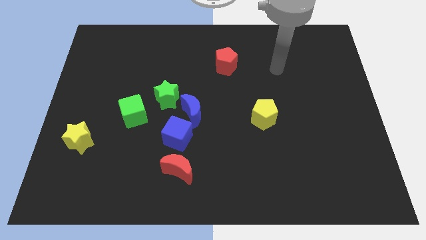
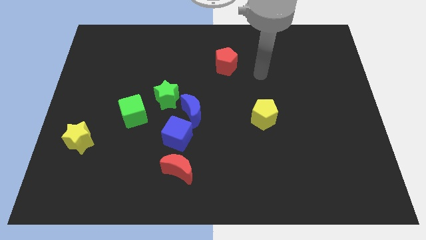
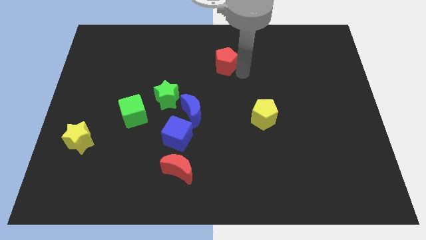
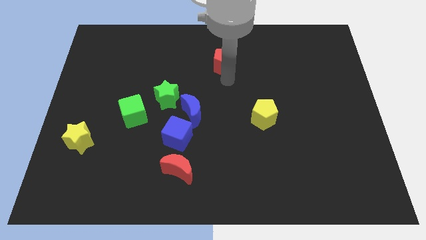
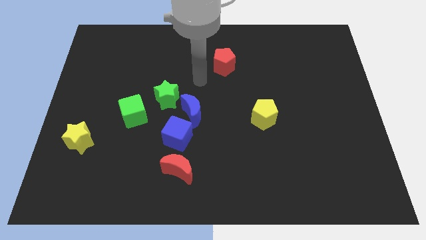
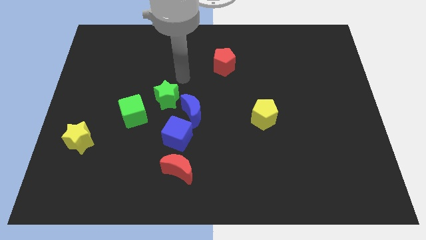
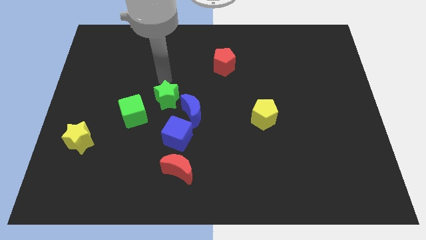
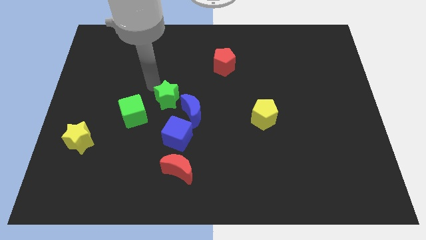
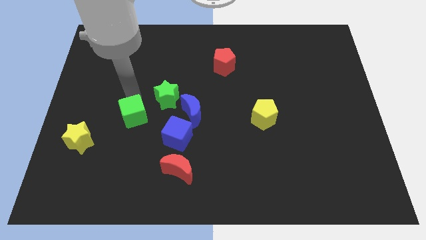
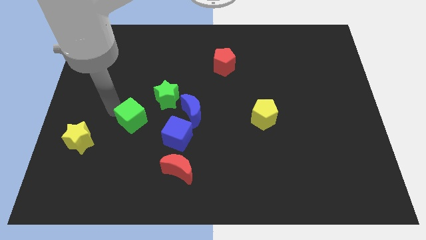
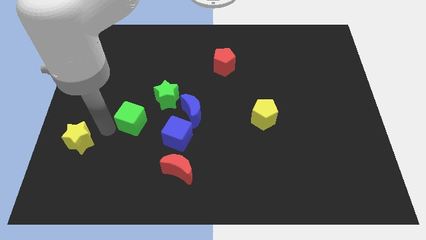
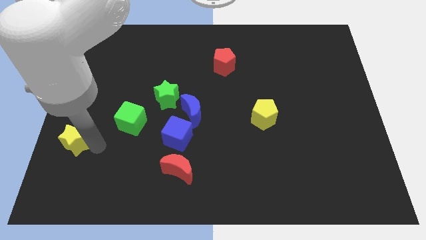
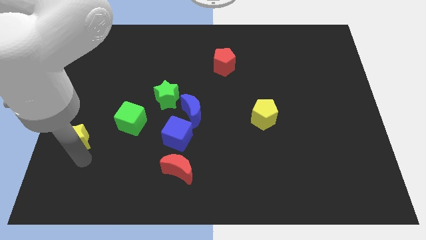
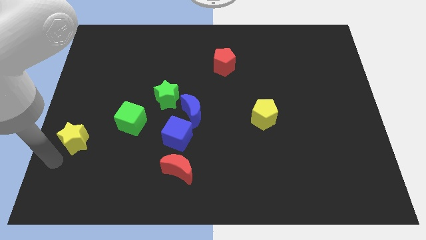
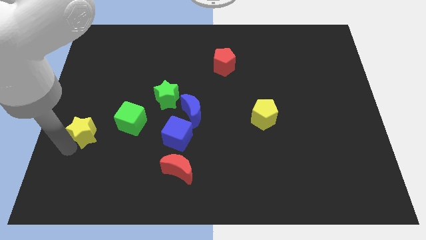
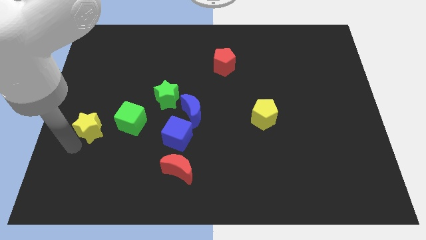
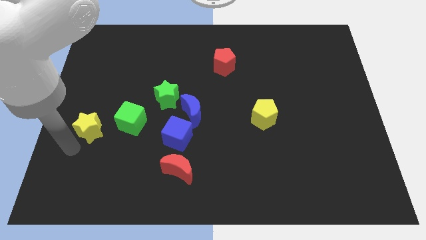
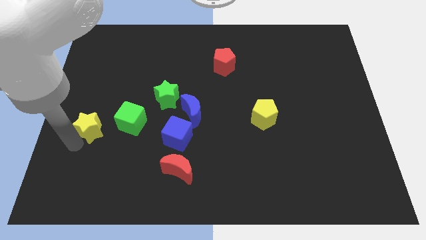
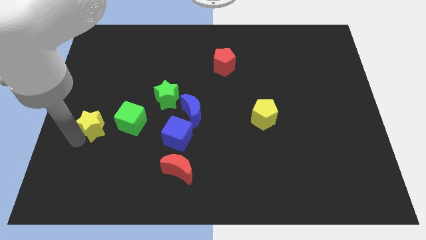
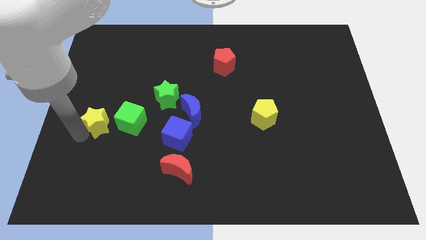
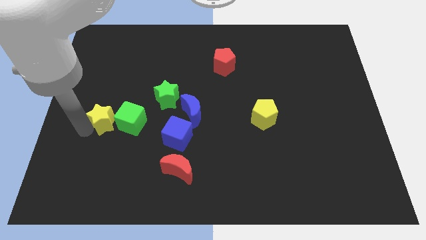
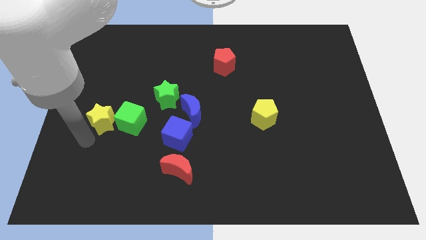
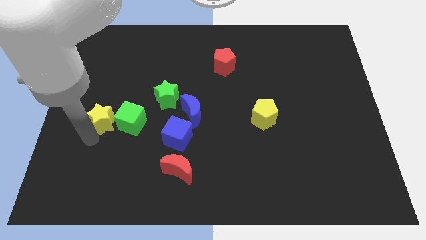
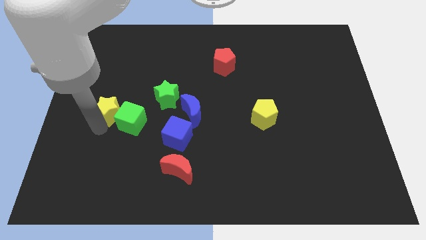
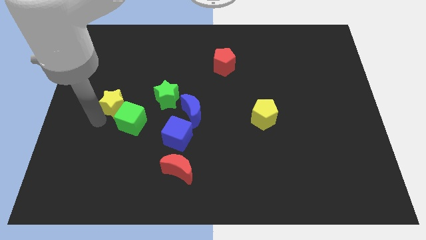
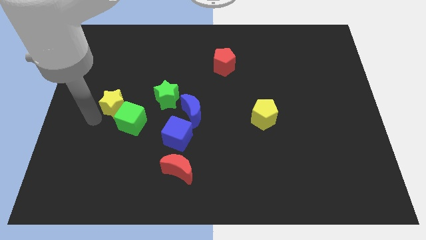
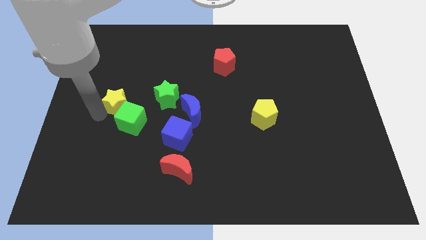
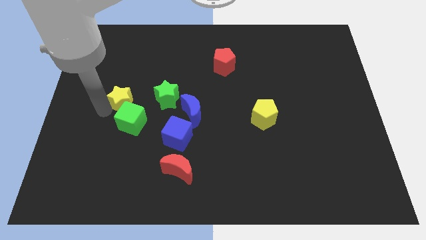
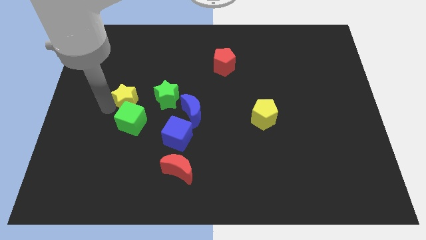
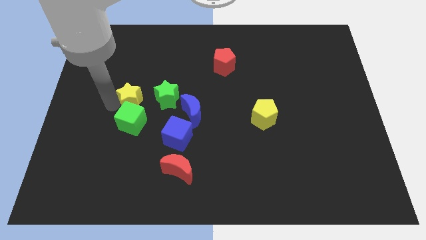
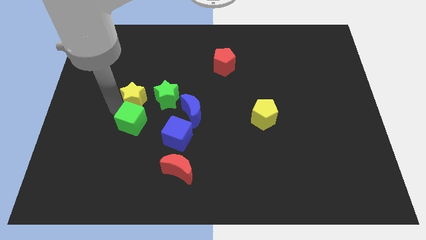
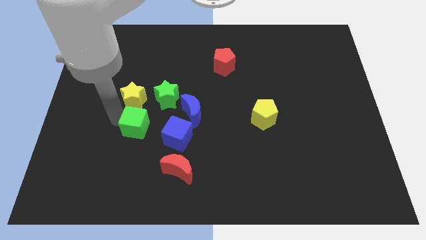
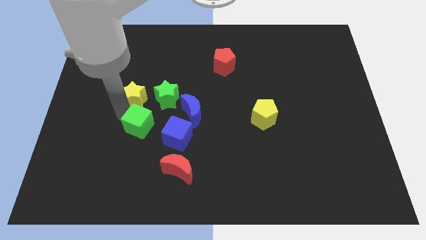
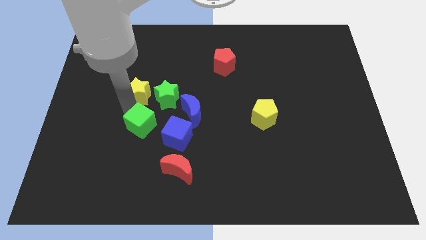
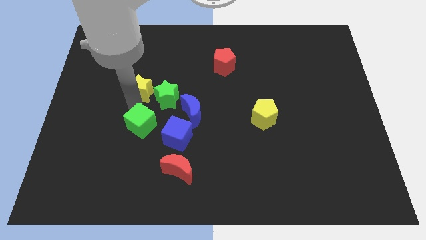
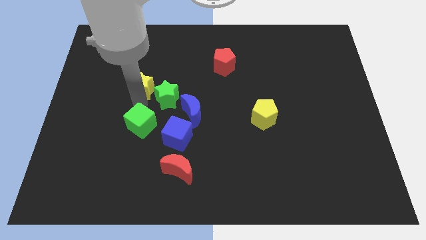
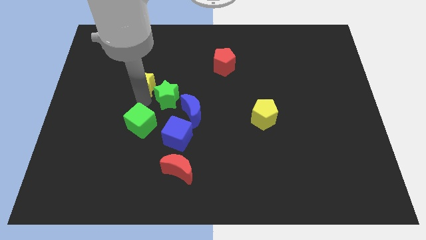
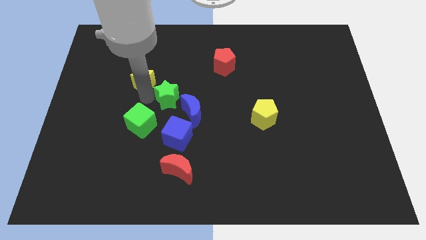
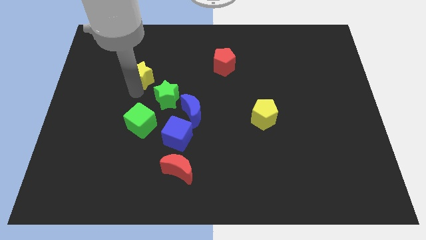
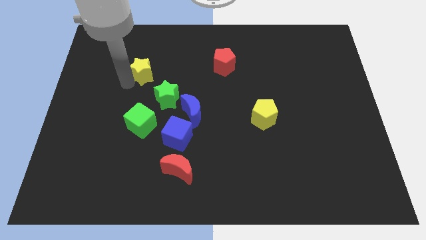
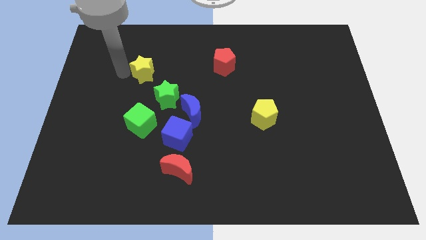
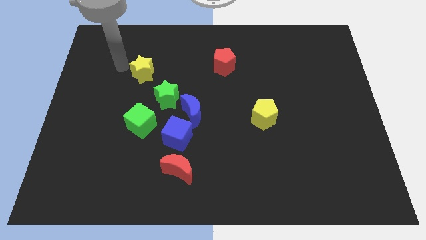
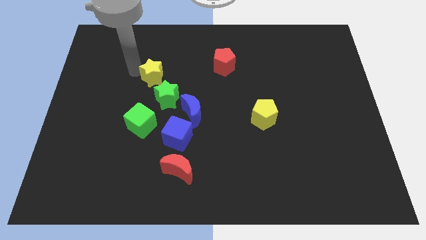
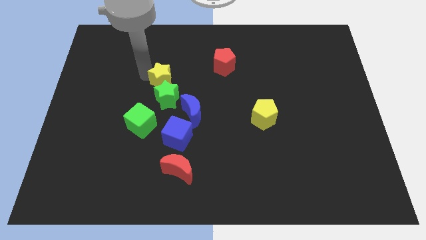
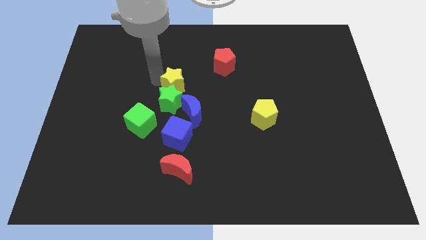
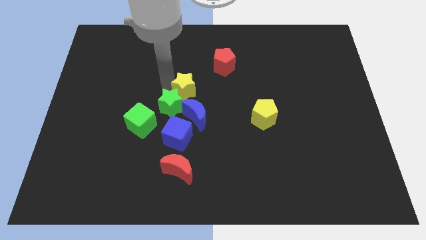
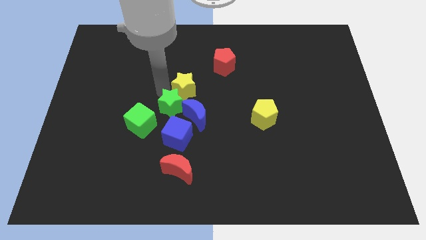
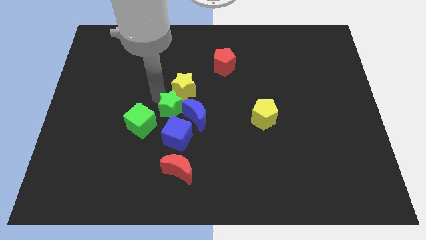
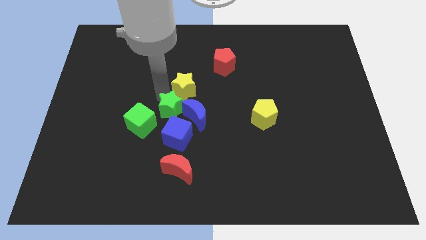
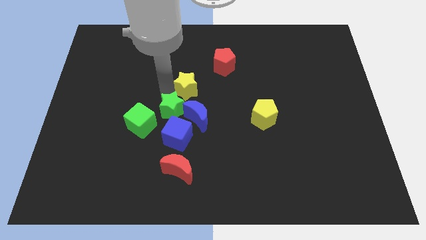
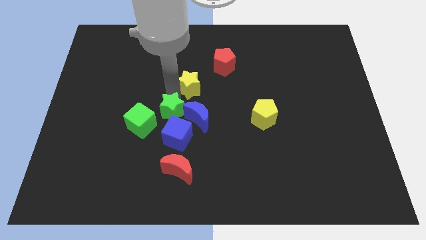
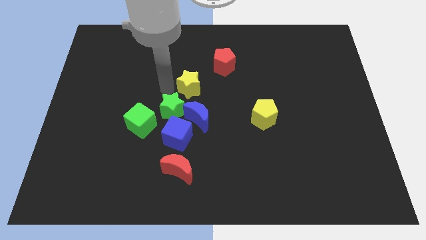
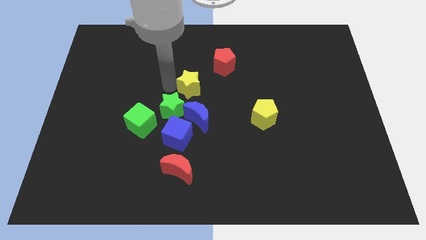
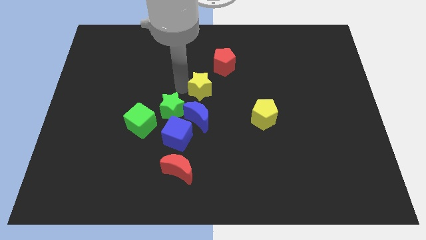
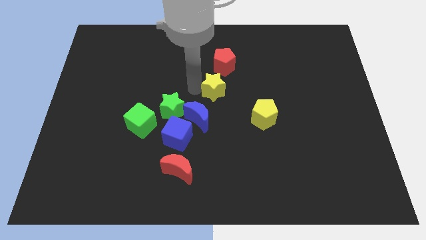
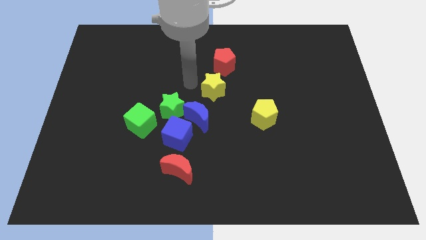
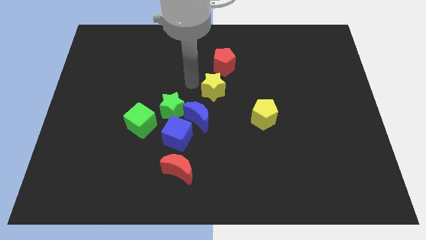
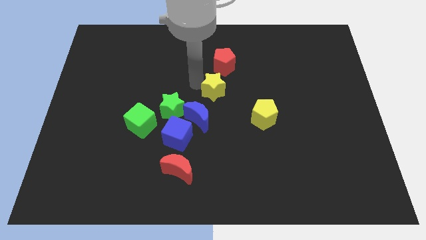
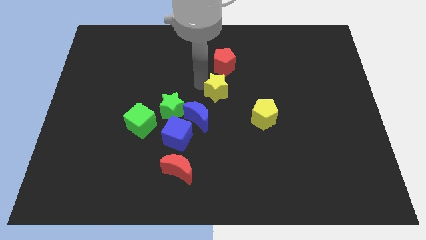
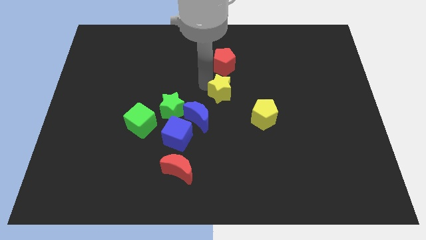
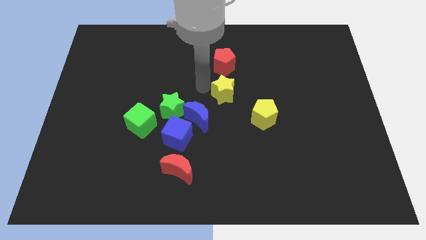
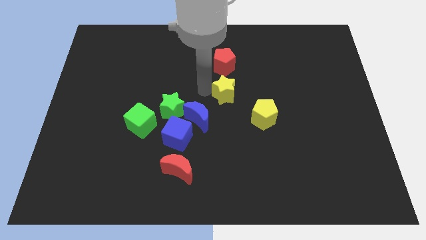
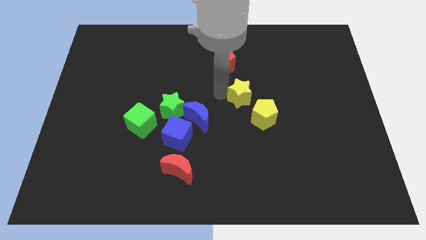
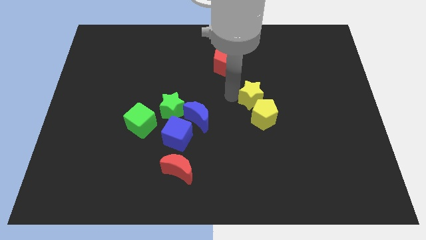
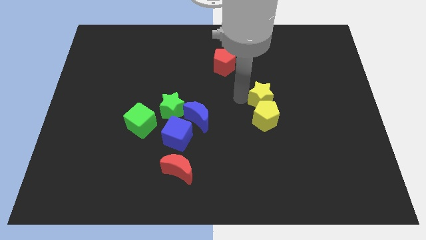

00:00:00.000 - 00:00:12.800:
put the yellow star to the top right of the yellow pentagon
